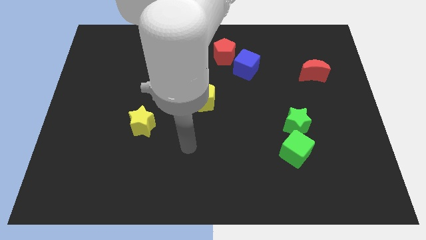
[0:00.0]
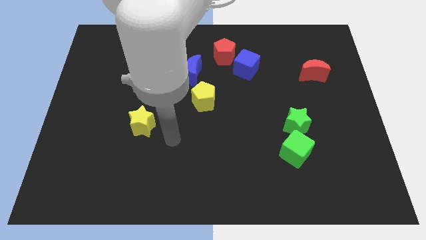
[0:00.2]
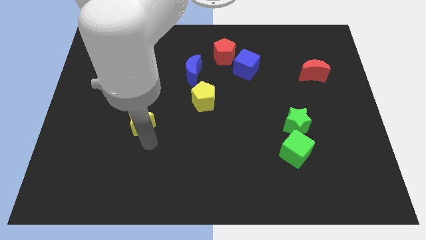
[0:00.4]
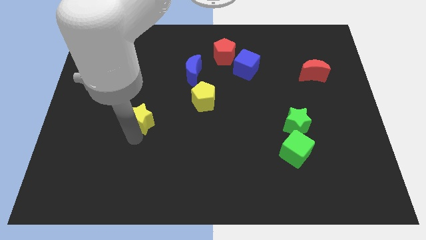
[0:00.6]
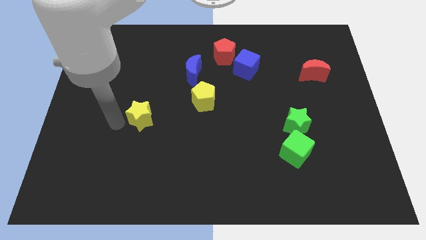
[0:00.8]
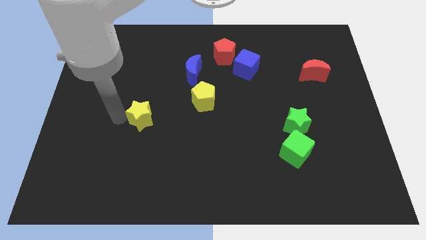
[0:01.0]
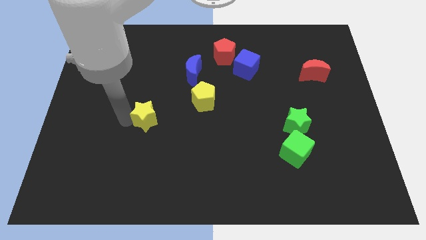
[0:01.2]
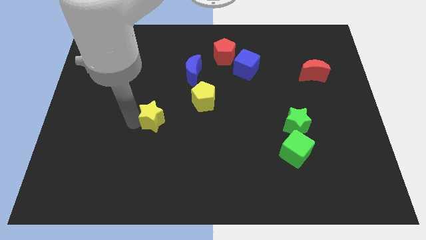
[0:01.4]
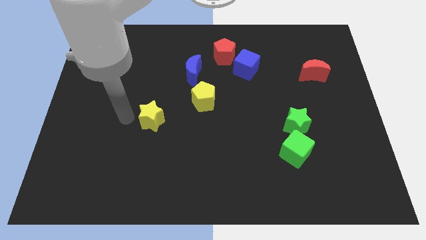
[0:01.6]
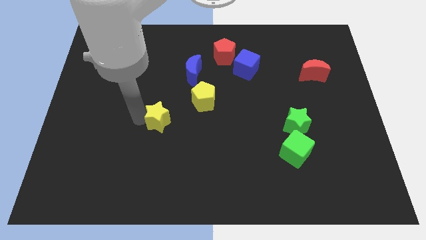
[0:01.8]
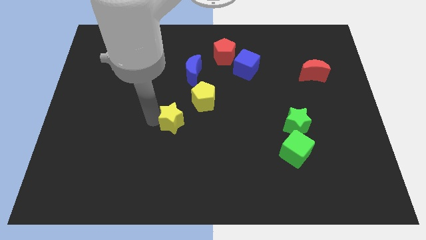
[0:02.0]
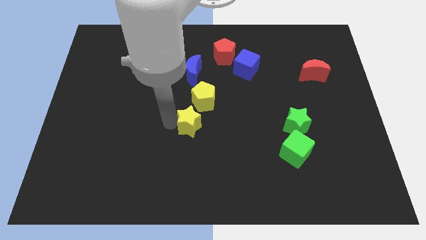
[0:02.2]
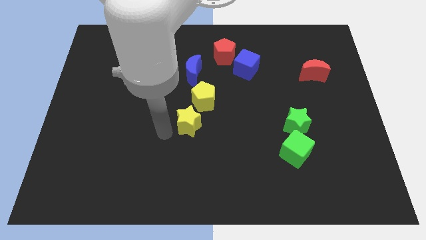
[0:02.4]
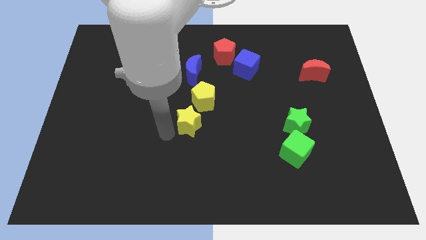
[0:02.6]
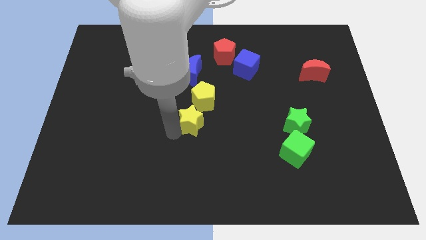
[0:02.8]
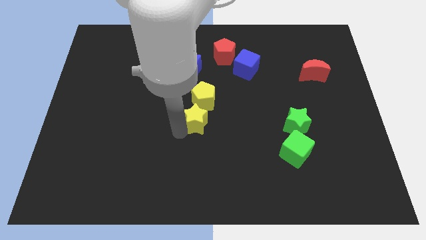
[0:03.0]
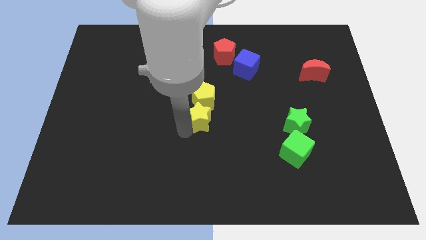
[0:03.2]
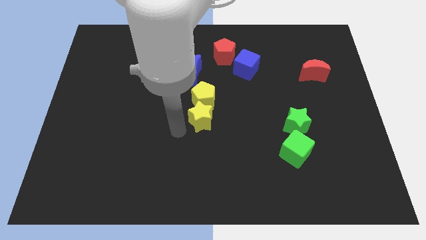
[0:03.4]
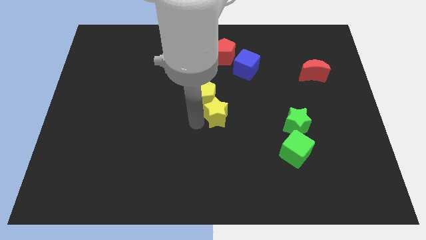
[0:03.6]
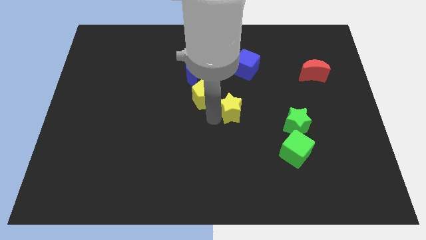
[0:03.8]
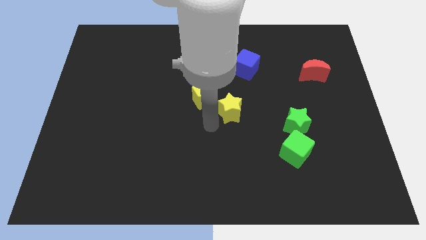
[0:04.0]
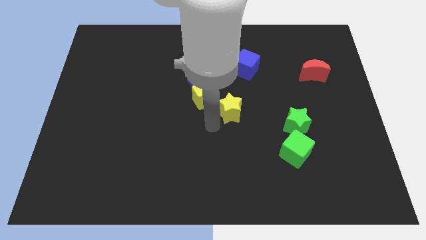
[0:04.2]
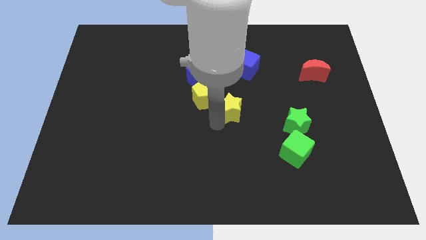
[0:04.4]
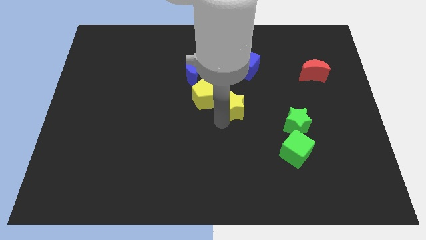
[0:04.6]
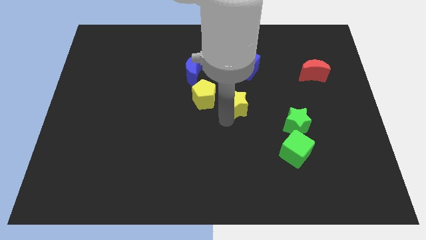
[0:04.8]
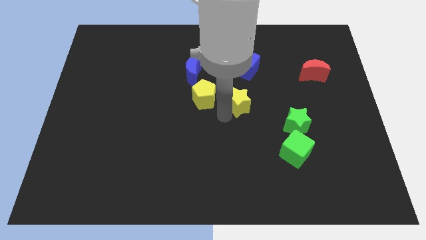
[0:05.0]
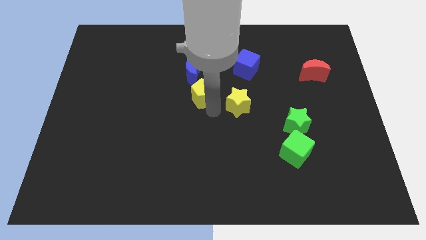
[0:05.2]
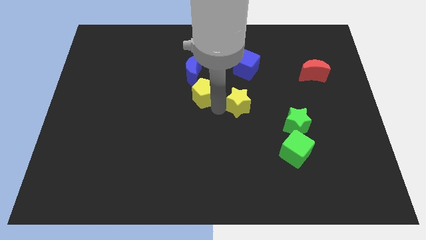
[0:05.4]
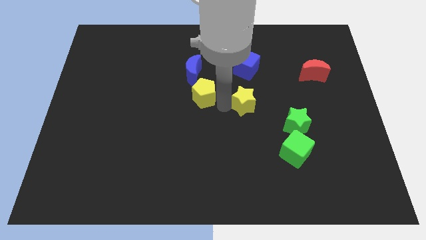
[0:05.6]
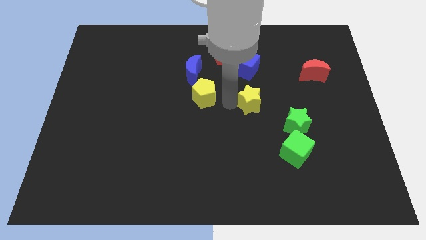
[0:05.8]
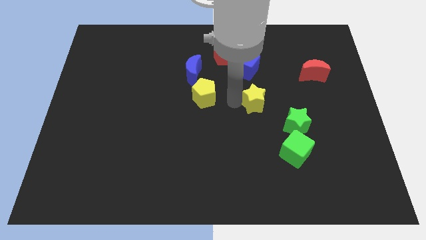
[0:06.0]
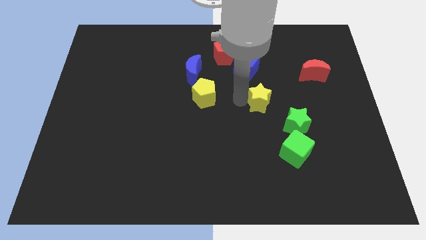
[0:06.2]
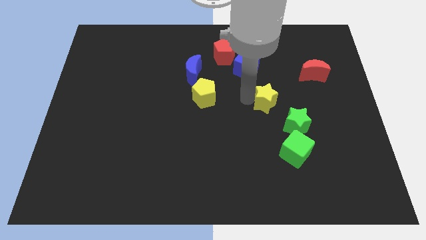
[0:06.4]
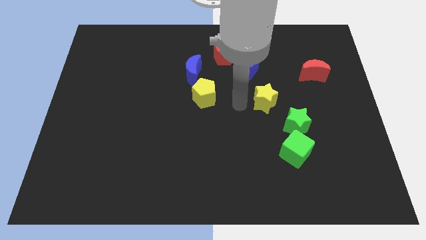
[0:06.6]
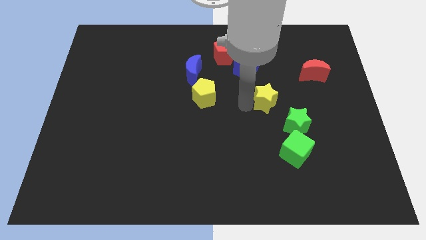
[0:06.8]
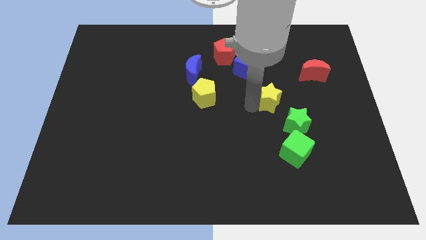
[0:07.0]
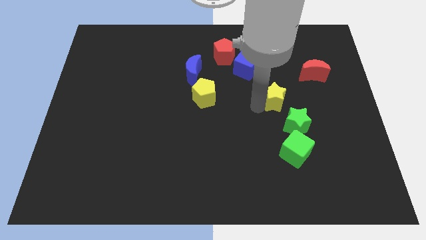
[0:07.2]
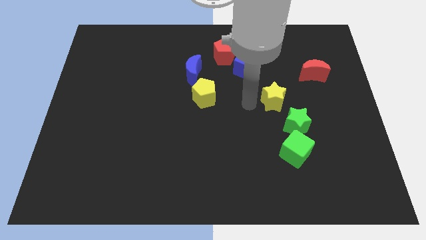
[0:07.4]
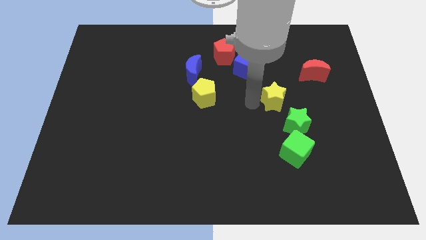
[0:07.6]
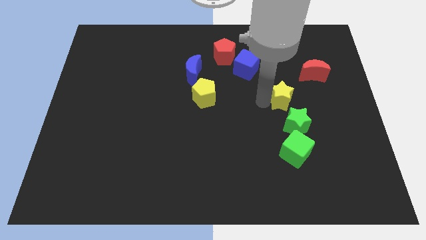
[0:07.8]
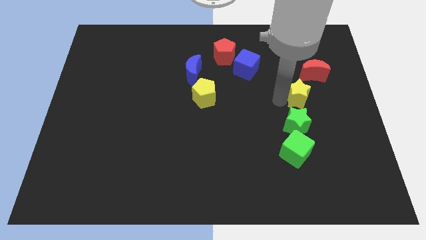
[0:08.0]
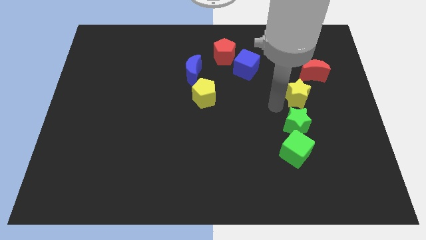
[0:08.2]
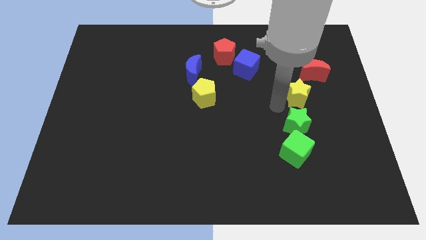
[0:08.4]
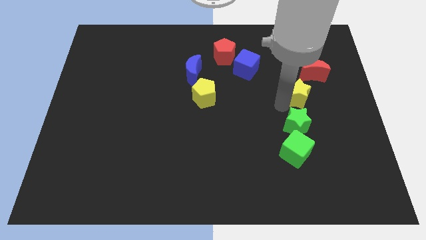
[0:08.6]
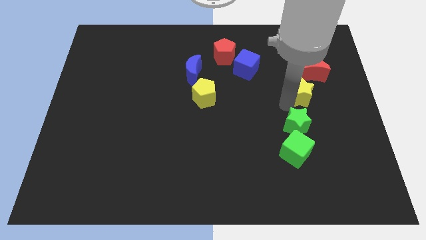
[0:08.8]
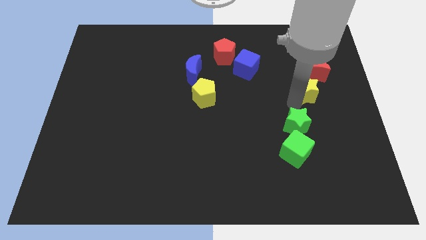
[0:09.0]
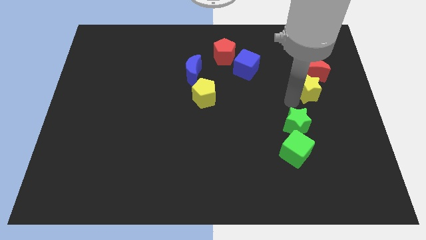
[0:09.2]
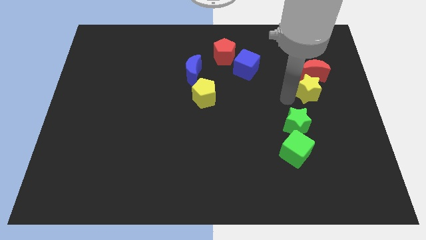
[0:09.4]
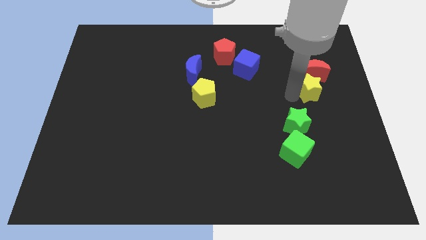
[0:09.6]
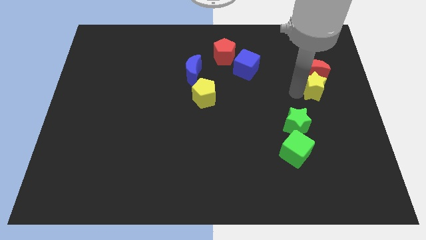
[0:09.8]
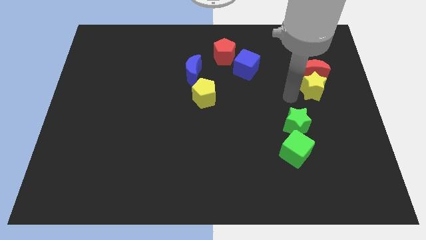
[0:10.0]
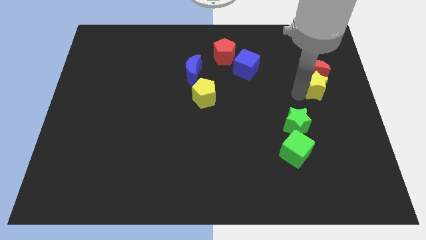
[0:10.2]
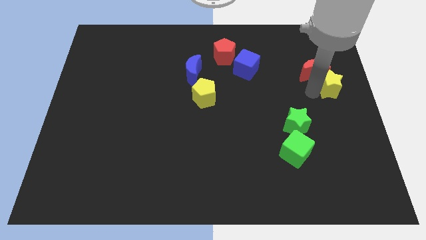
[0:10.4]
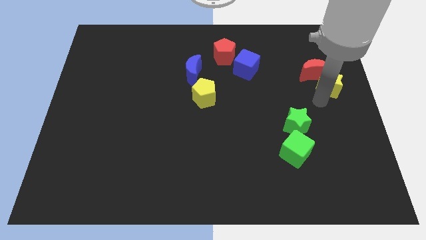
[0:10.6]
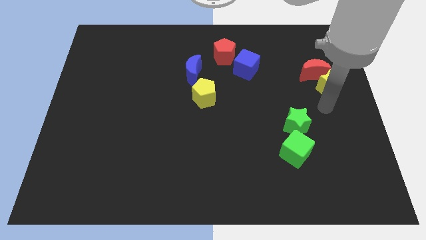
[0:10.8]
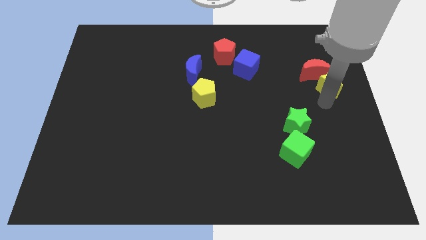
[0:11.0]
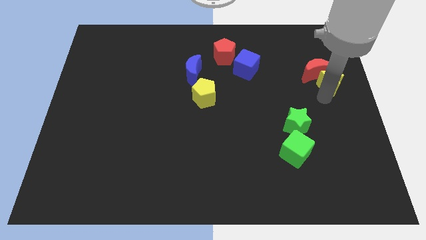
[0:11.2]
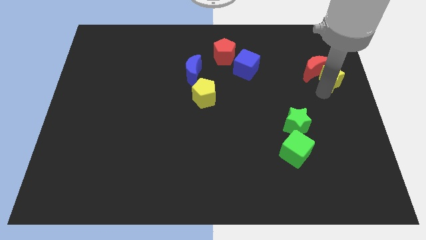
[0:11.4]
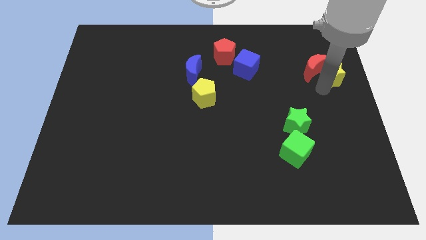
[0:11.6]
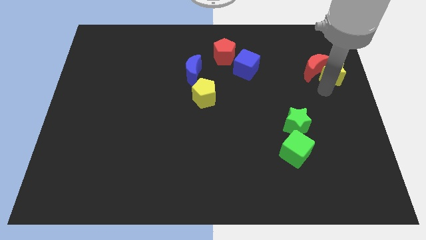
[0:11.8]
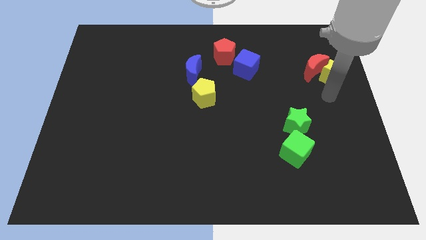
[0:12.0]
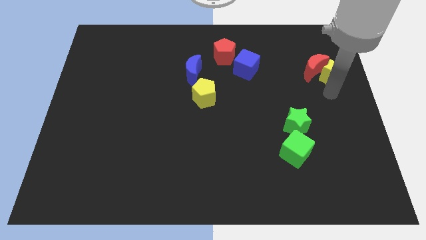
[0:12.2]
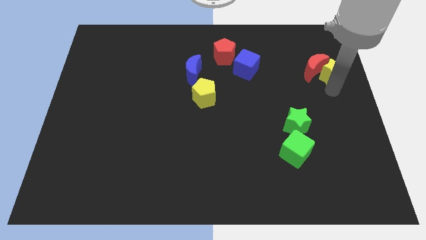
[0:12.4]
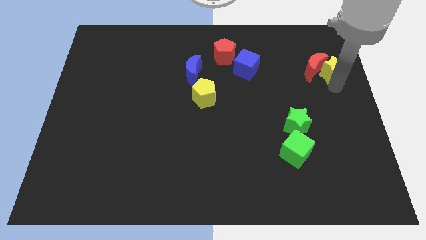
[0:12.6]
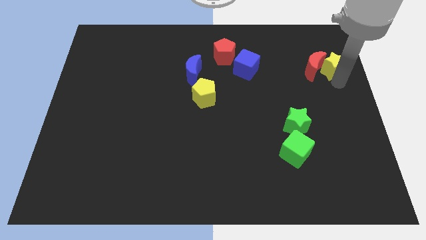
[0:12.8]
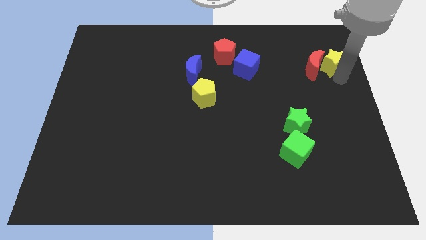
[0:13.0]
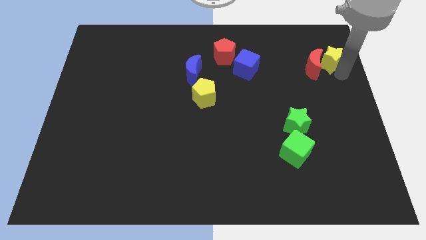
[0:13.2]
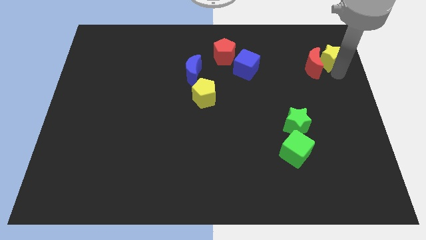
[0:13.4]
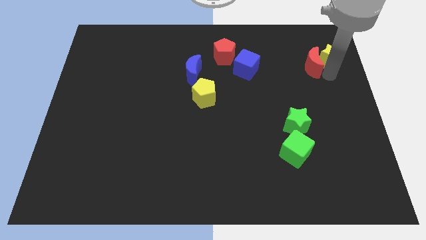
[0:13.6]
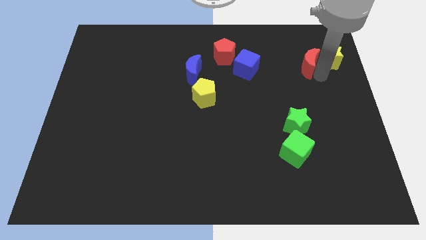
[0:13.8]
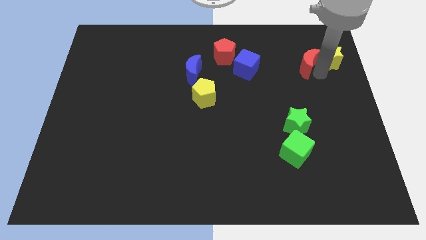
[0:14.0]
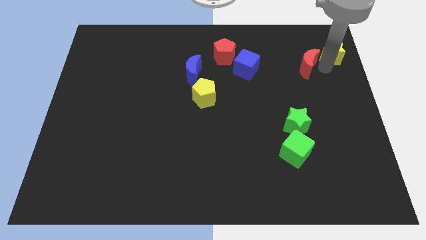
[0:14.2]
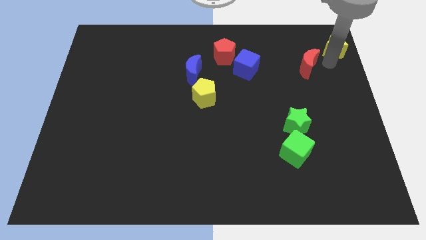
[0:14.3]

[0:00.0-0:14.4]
slide the yellow star to the top right of the board
